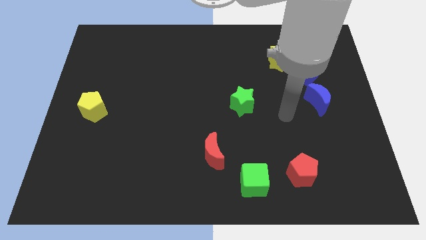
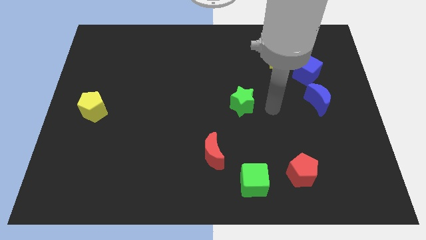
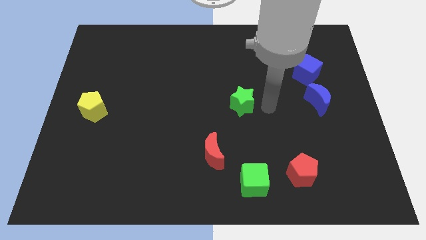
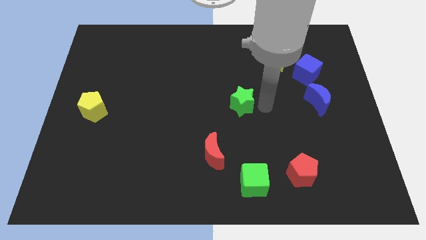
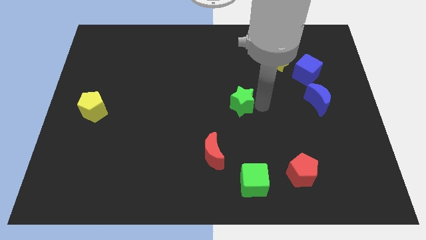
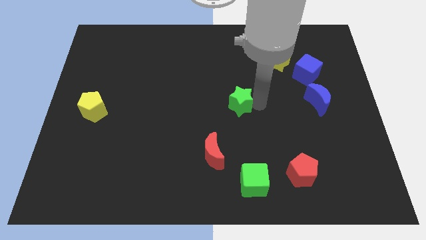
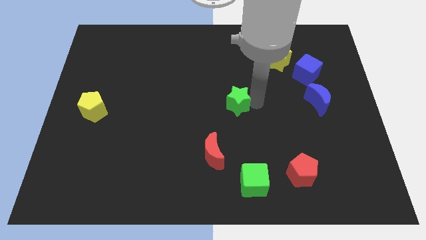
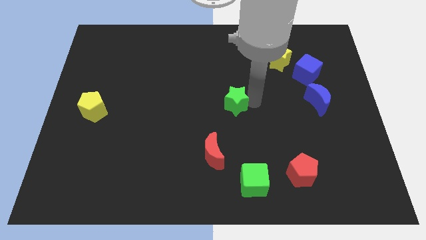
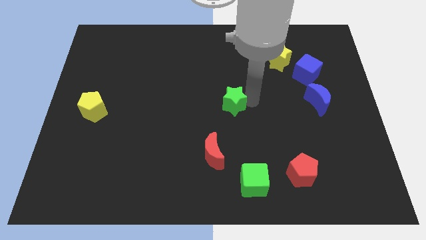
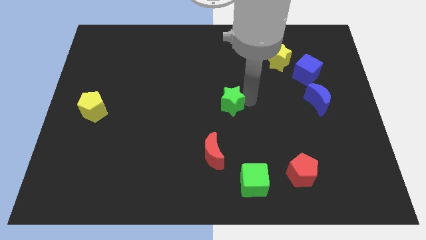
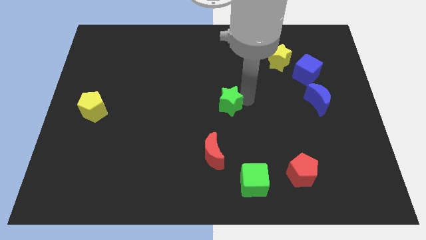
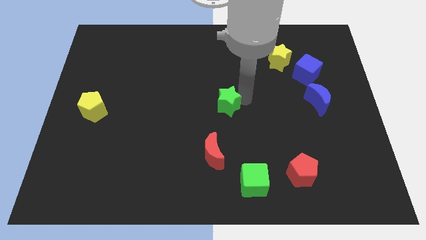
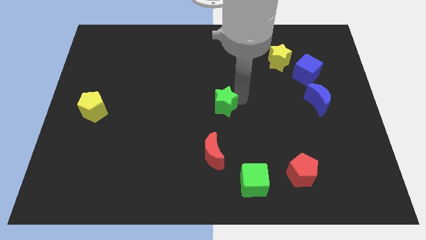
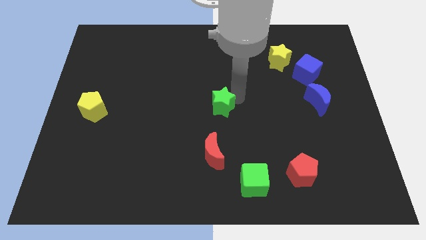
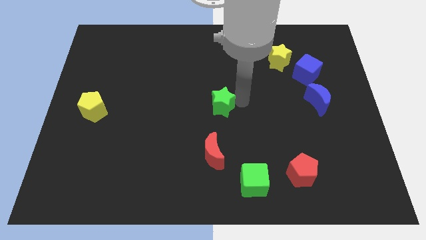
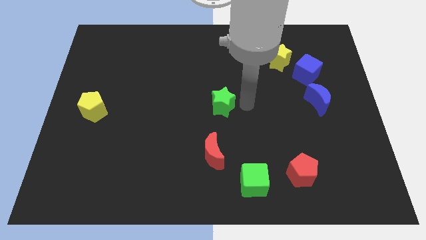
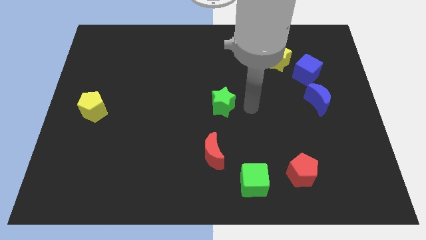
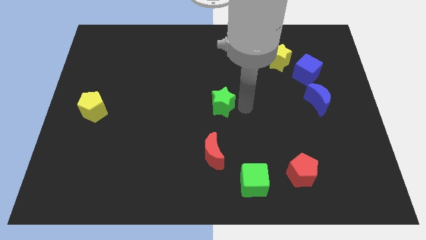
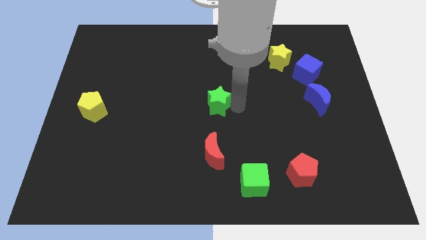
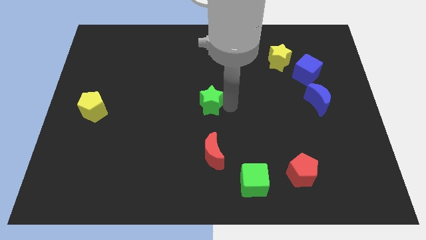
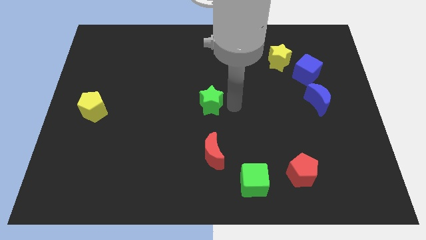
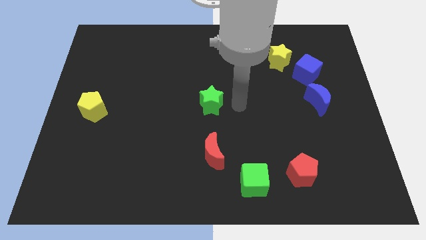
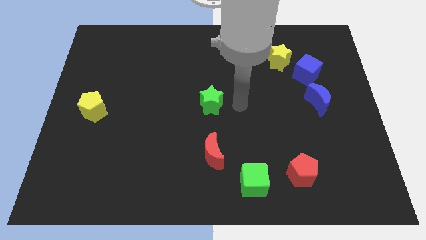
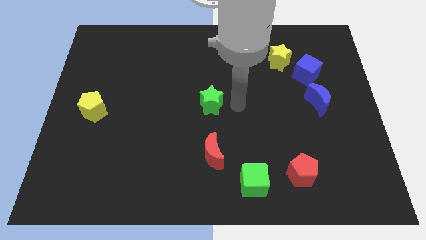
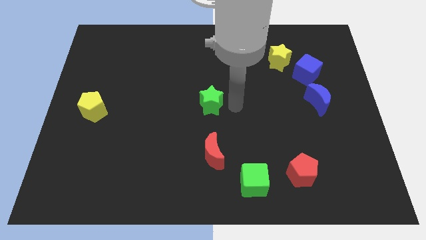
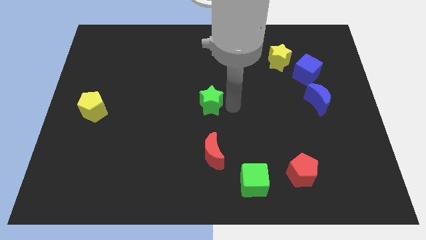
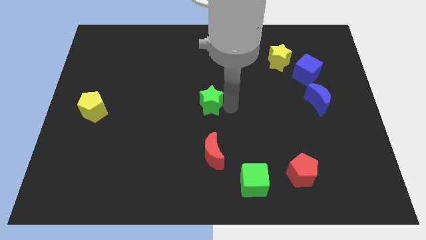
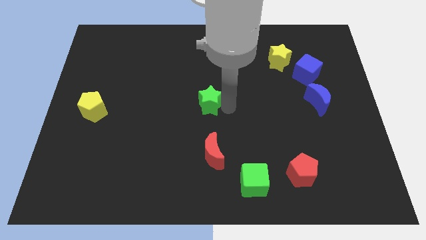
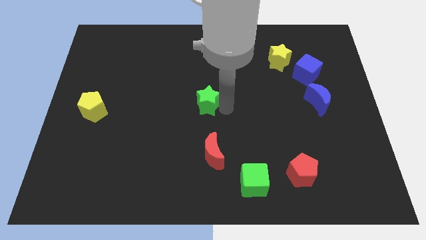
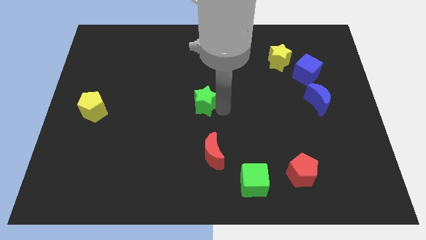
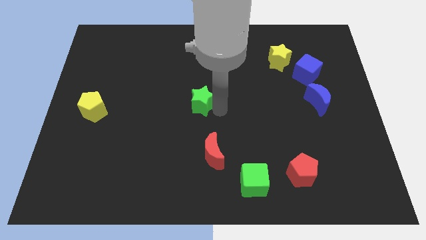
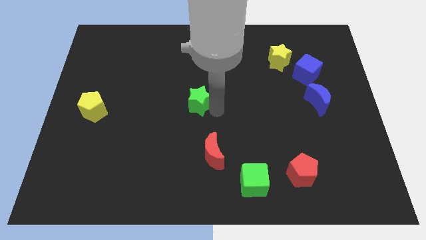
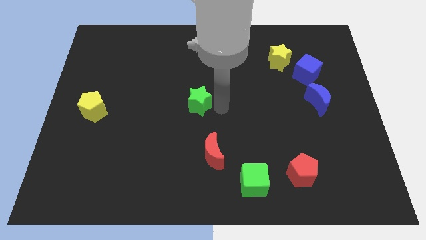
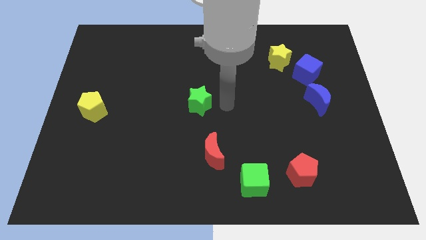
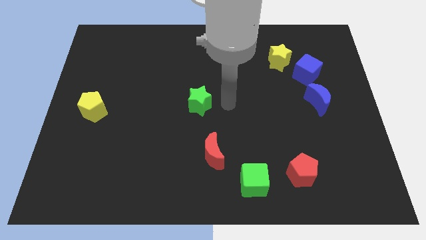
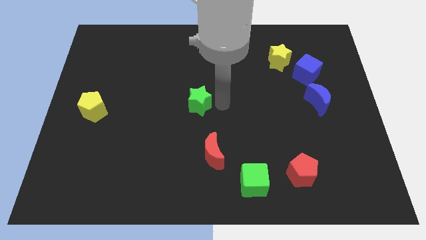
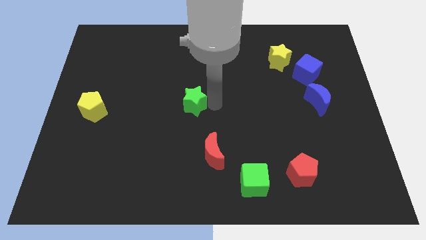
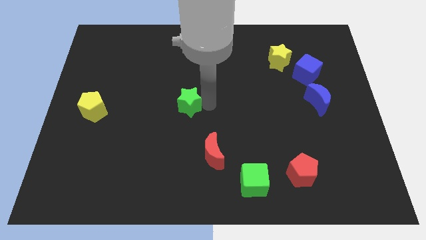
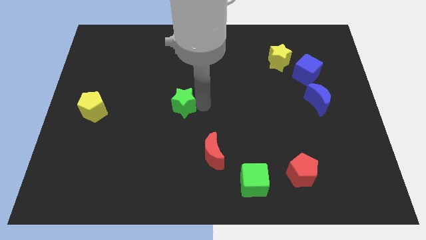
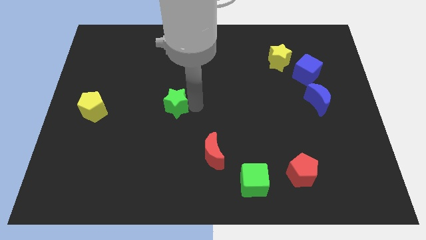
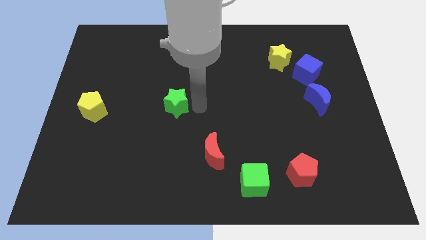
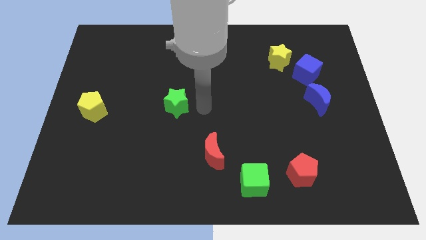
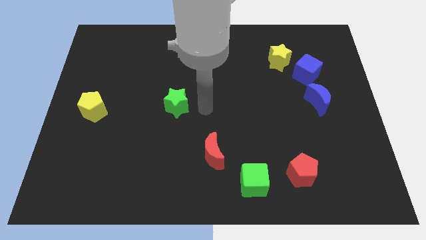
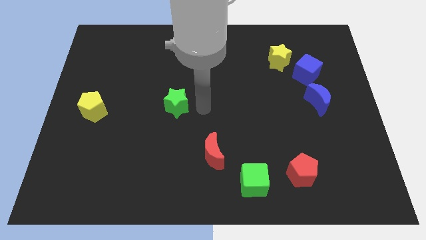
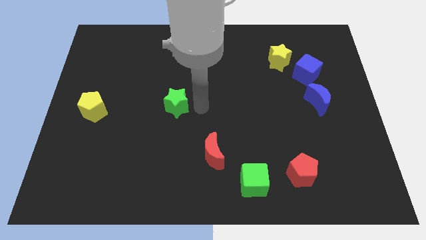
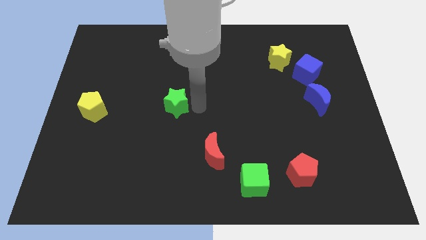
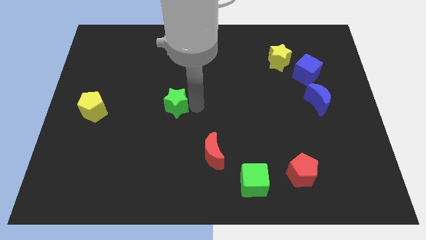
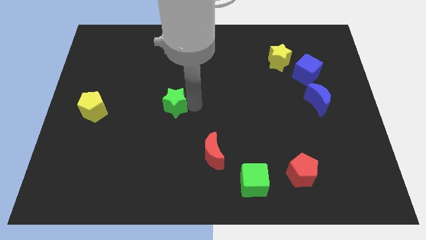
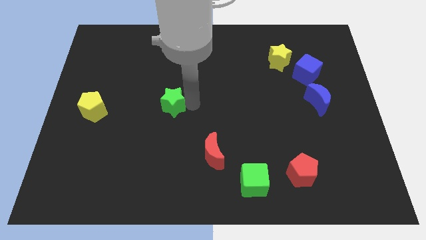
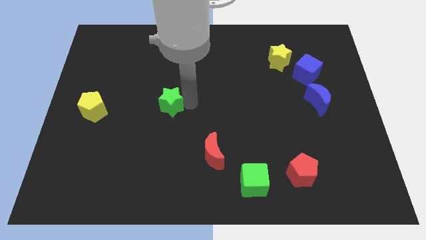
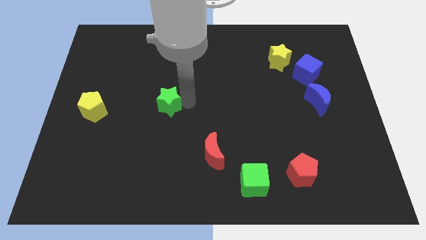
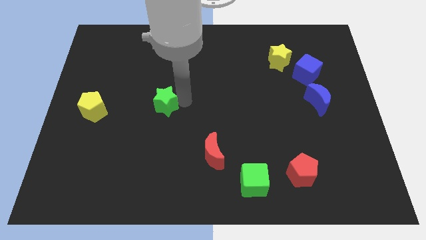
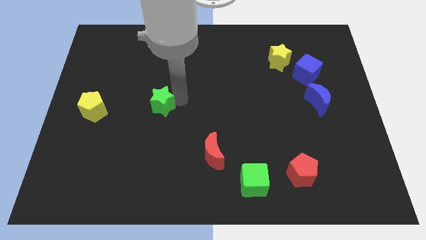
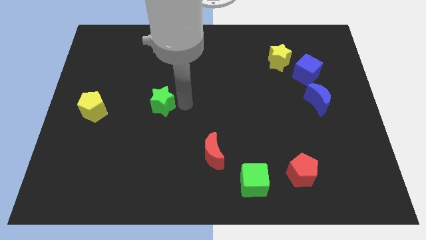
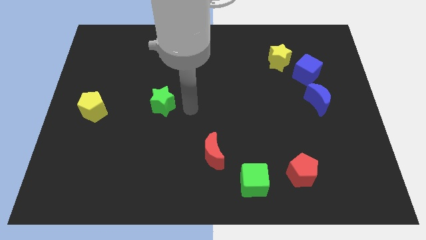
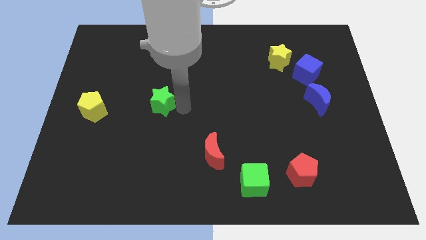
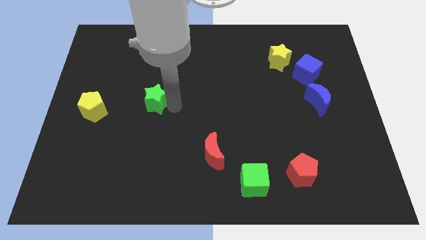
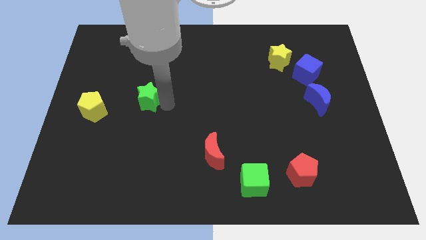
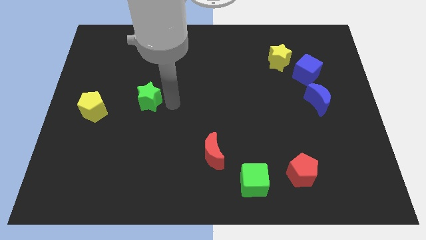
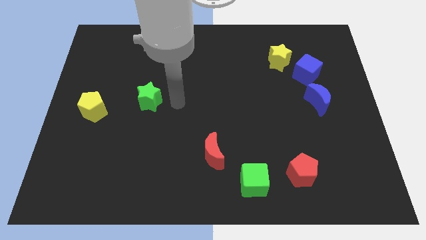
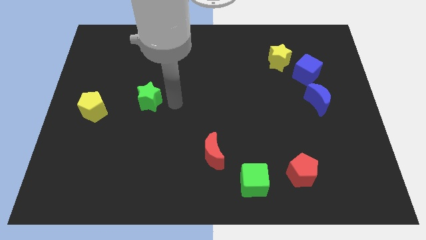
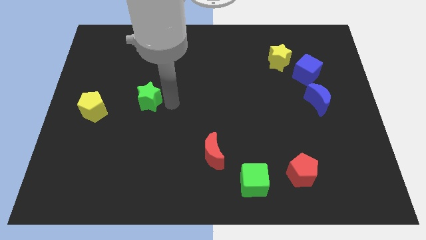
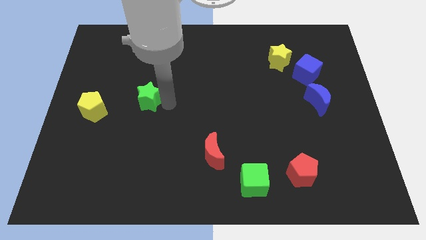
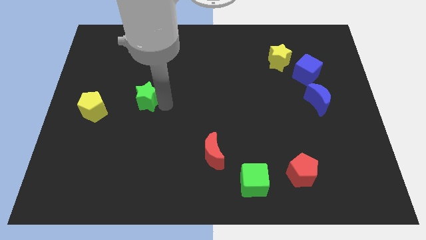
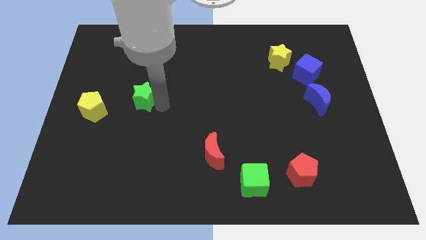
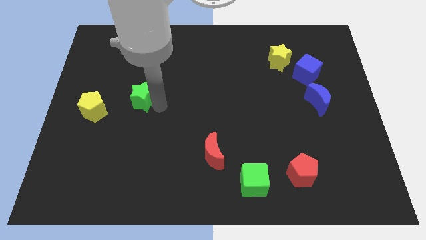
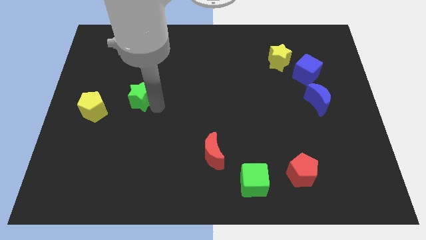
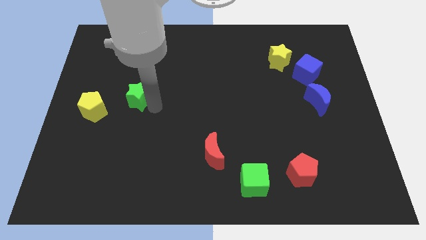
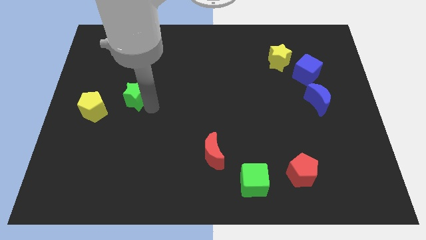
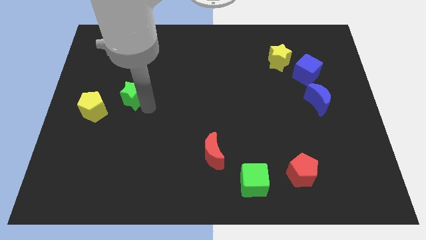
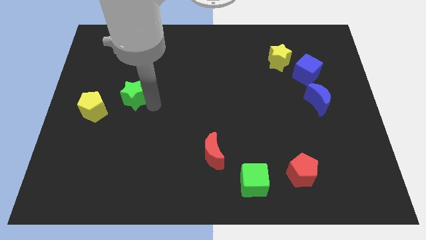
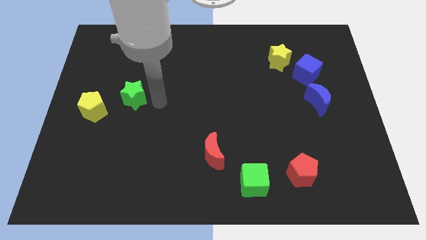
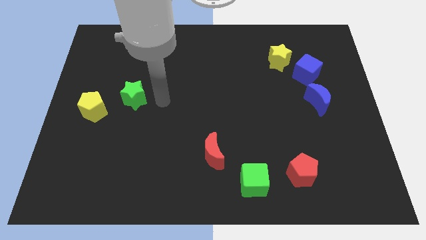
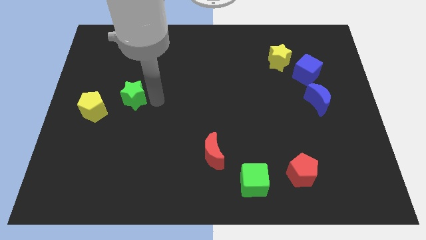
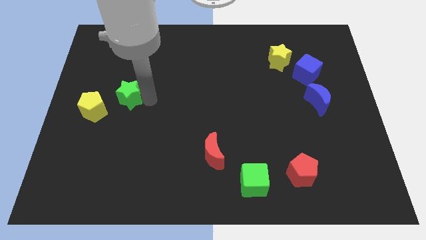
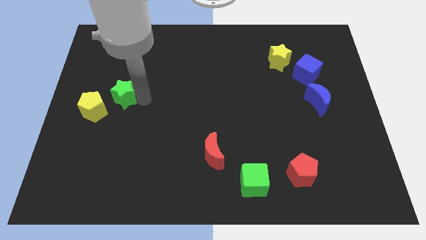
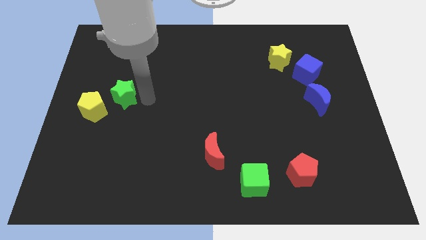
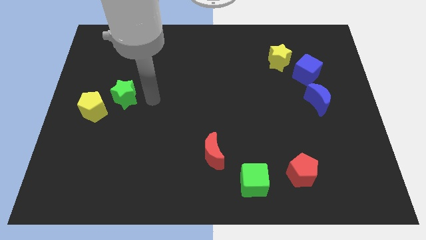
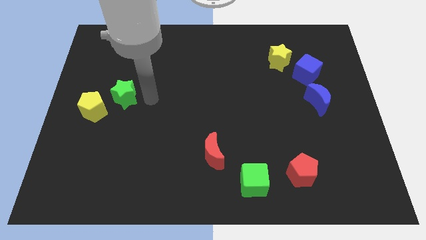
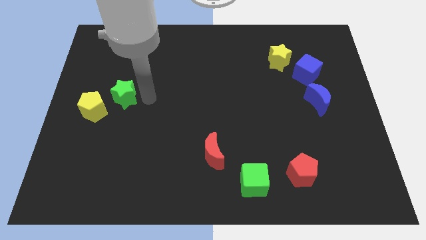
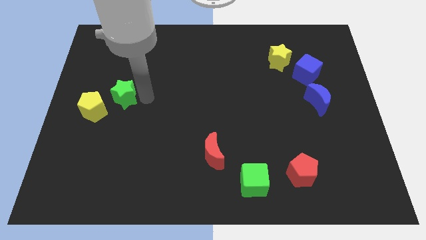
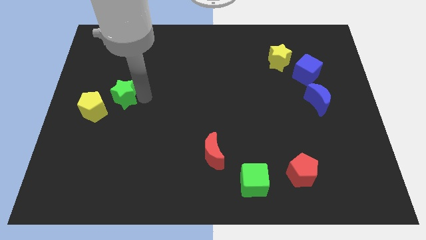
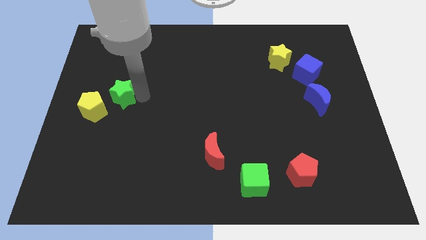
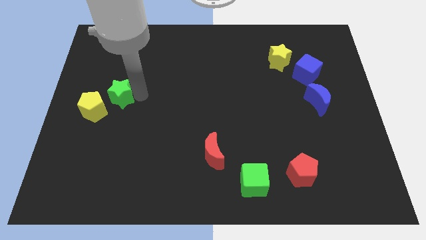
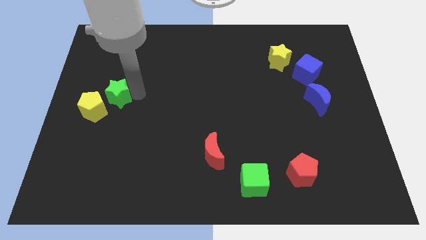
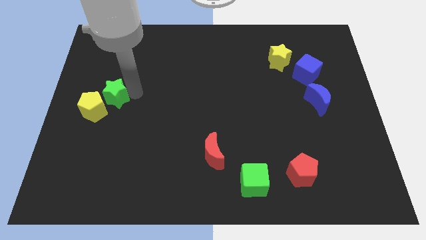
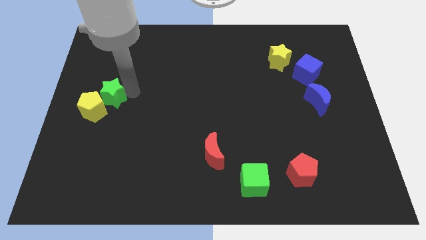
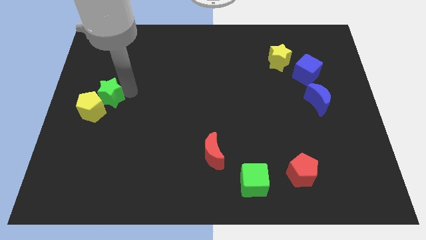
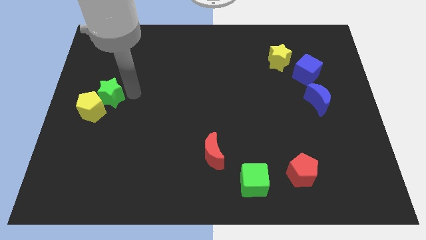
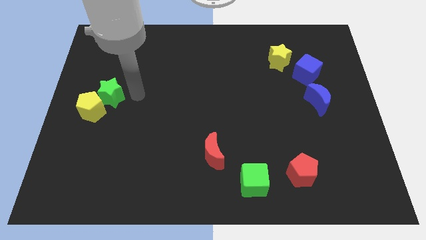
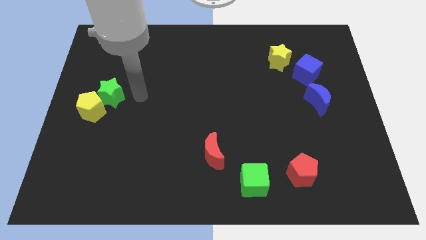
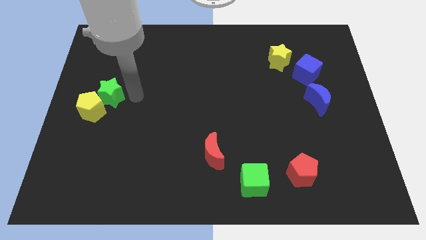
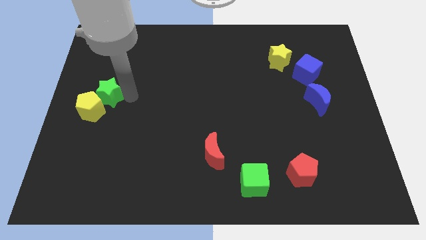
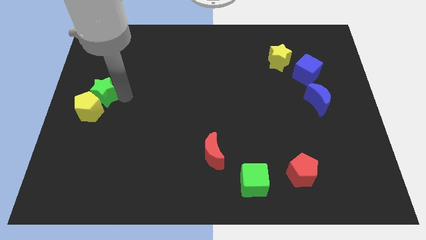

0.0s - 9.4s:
put the green star to the center left
